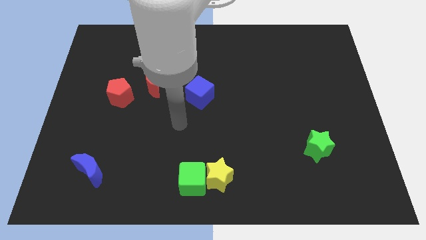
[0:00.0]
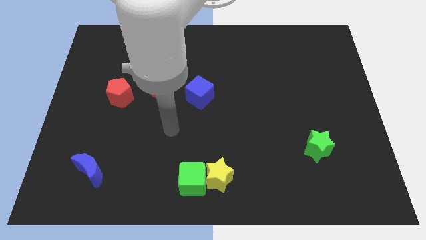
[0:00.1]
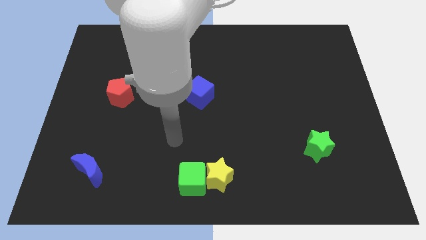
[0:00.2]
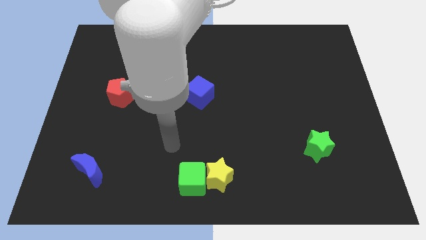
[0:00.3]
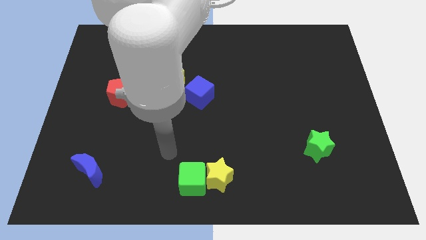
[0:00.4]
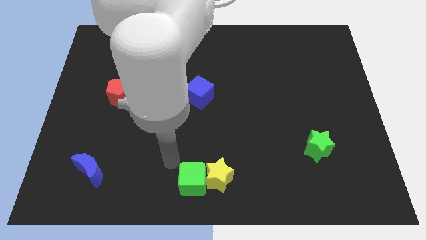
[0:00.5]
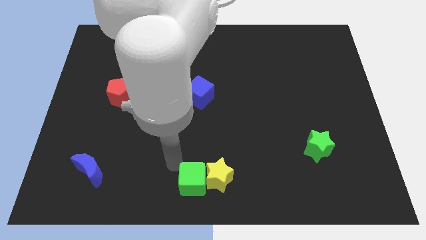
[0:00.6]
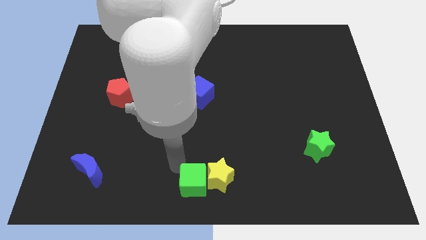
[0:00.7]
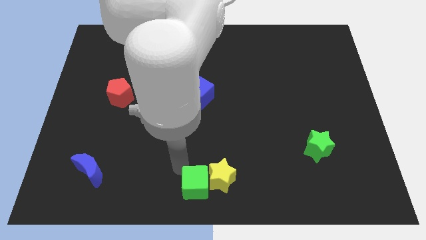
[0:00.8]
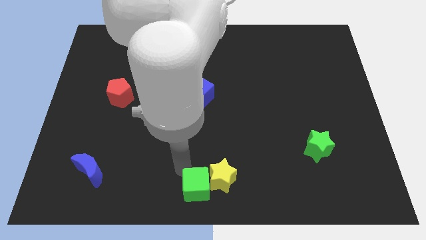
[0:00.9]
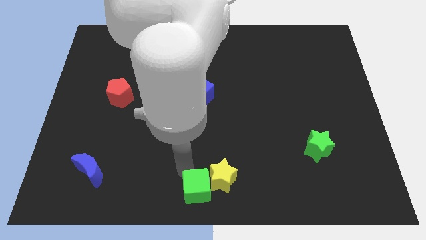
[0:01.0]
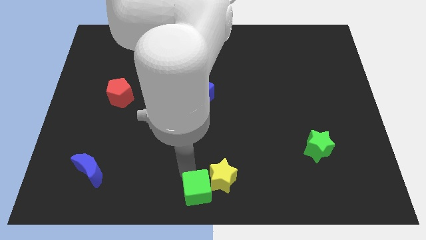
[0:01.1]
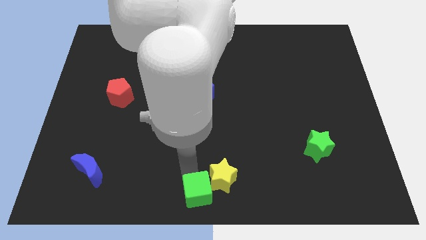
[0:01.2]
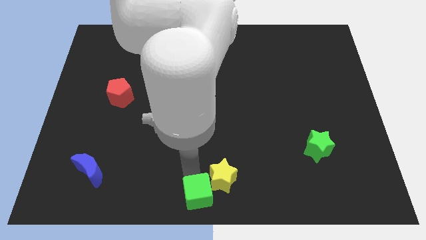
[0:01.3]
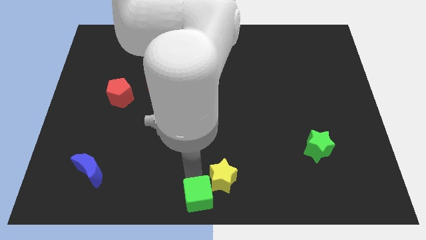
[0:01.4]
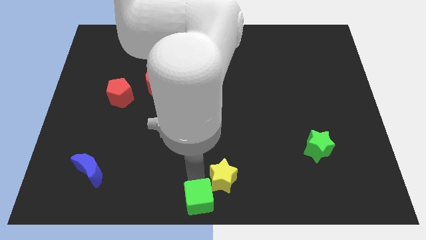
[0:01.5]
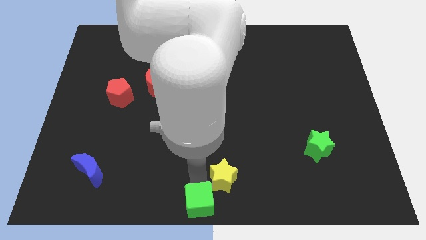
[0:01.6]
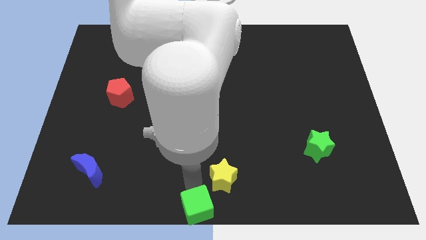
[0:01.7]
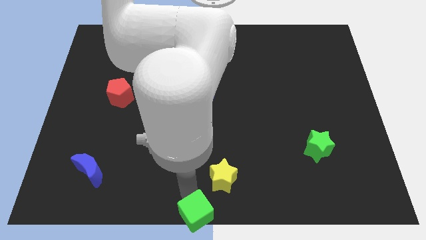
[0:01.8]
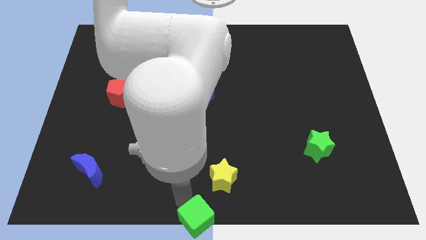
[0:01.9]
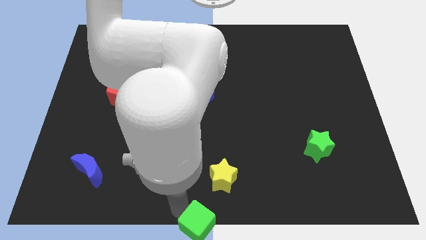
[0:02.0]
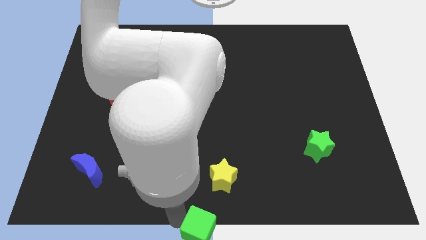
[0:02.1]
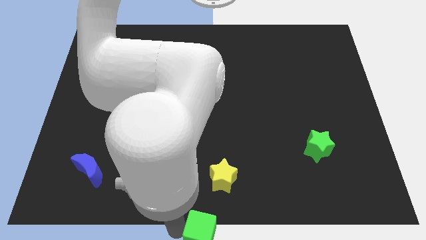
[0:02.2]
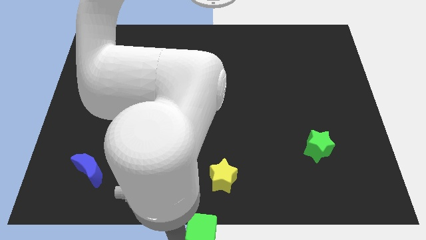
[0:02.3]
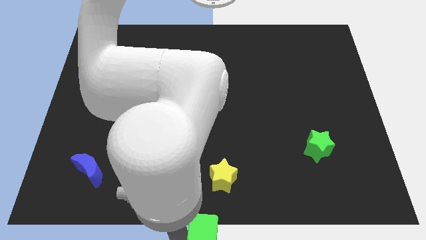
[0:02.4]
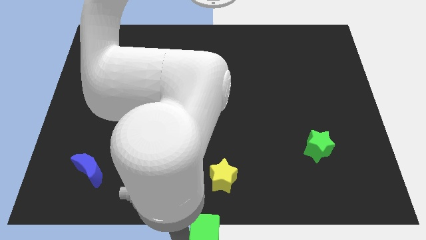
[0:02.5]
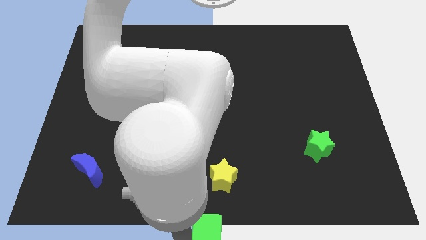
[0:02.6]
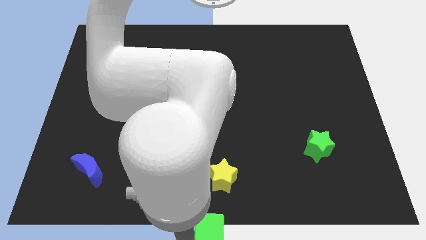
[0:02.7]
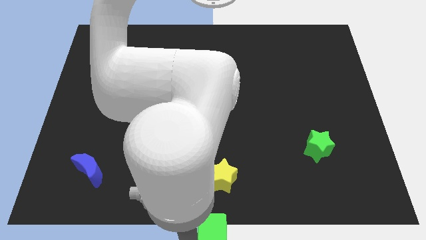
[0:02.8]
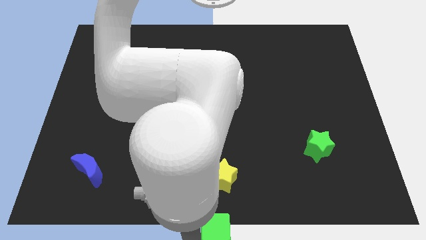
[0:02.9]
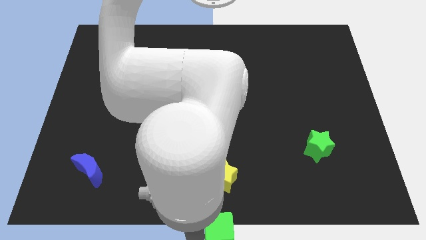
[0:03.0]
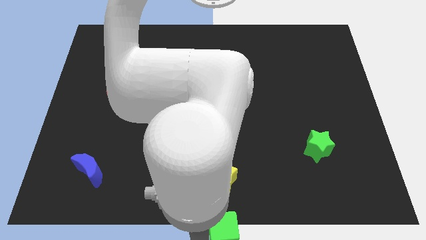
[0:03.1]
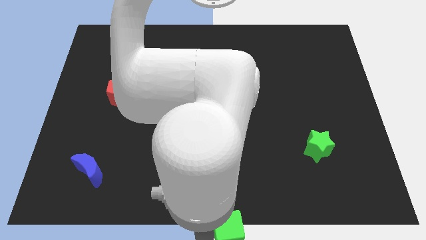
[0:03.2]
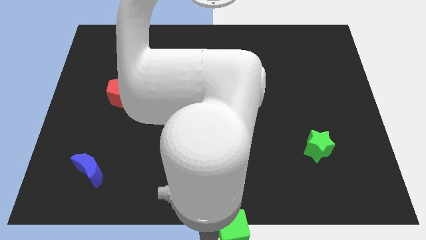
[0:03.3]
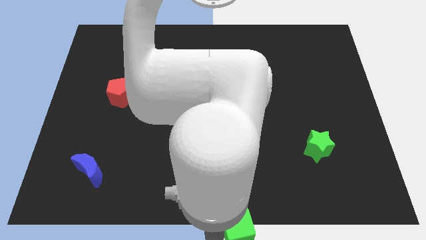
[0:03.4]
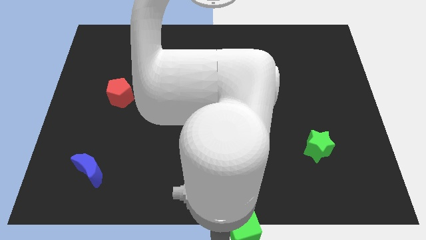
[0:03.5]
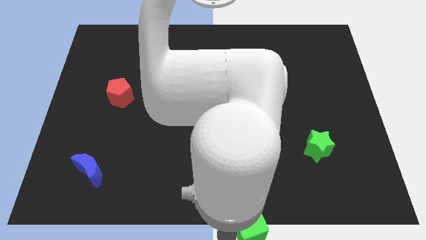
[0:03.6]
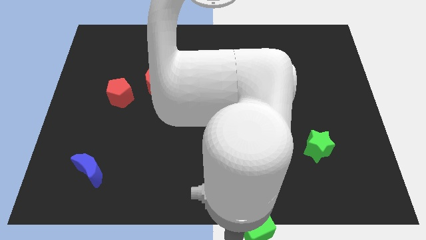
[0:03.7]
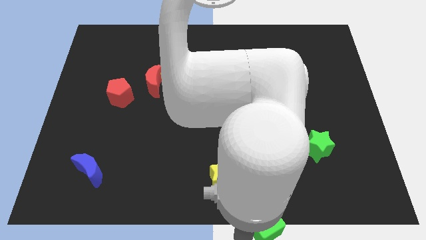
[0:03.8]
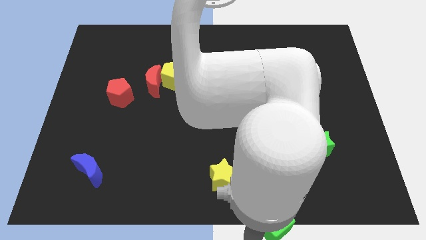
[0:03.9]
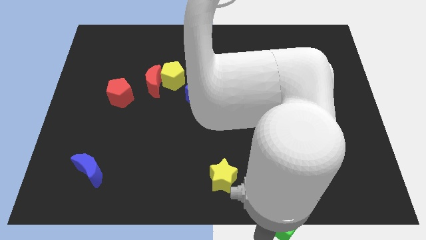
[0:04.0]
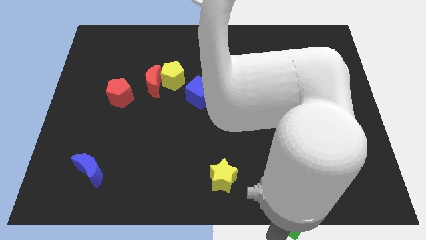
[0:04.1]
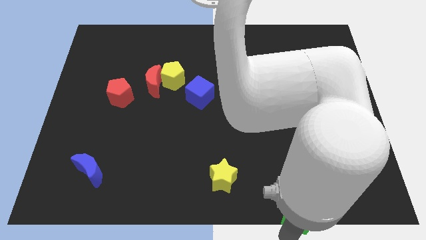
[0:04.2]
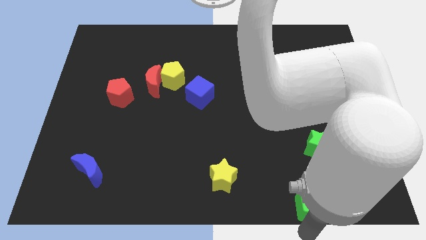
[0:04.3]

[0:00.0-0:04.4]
move the green cube right

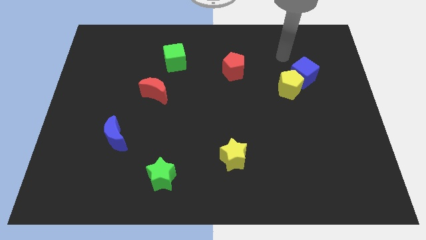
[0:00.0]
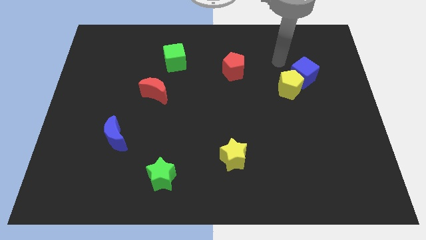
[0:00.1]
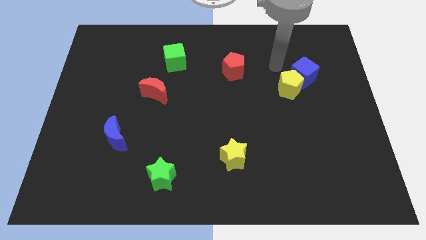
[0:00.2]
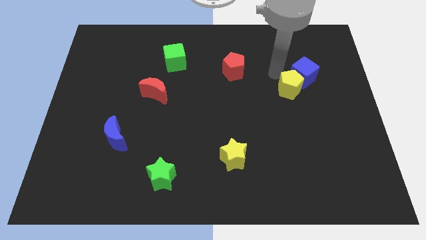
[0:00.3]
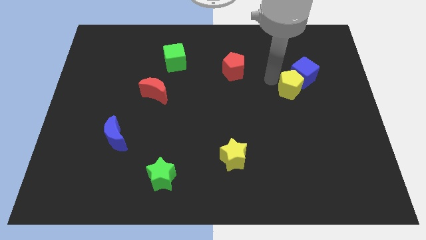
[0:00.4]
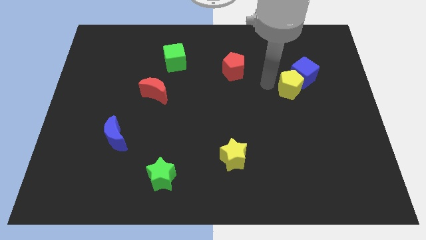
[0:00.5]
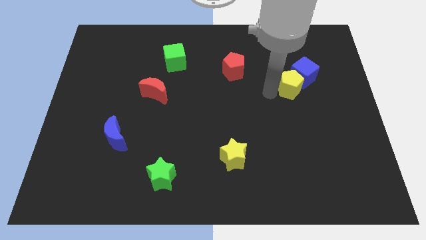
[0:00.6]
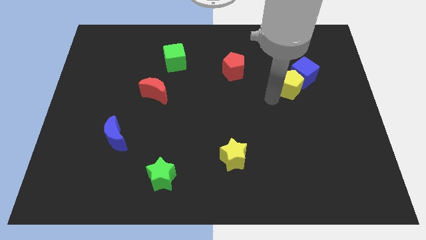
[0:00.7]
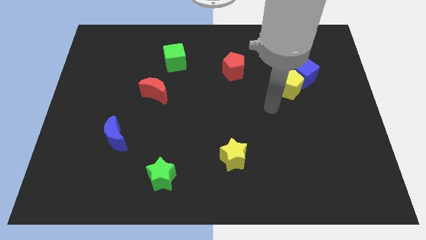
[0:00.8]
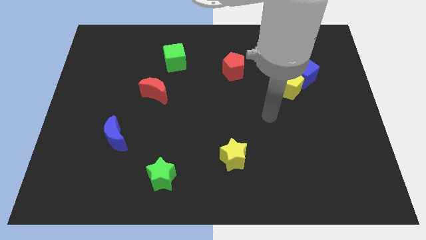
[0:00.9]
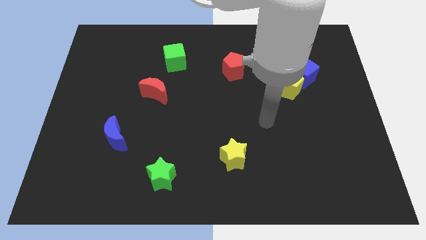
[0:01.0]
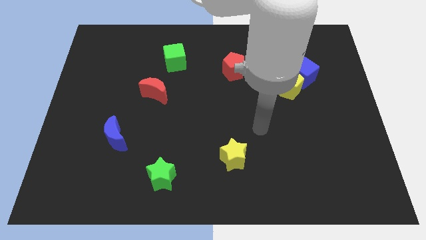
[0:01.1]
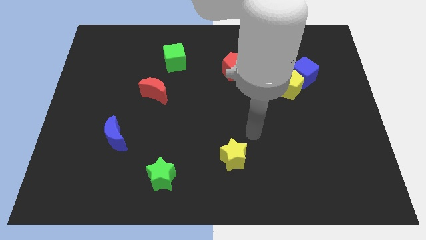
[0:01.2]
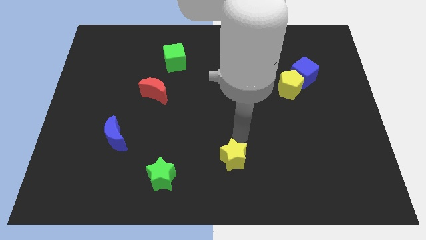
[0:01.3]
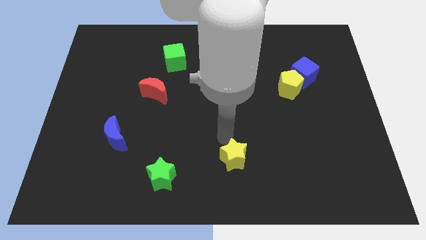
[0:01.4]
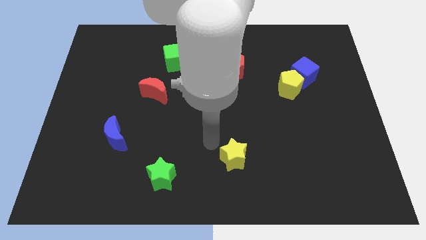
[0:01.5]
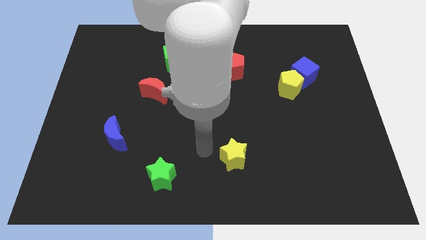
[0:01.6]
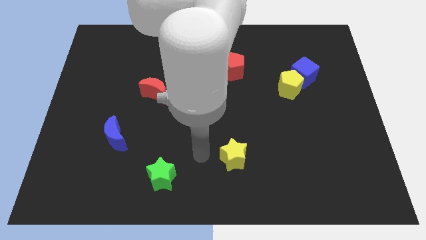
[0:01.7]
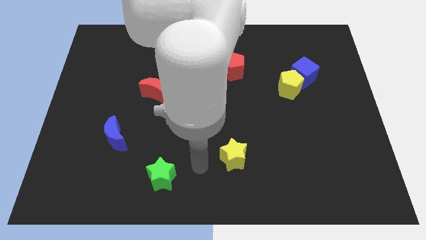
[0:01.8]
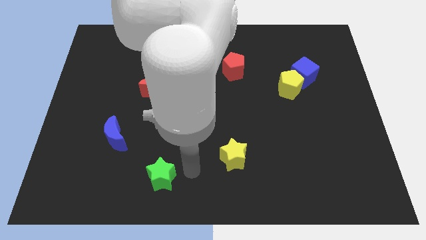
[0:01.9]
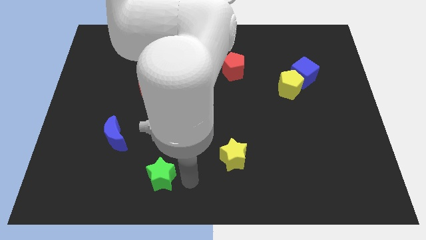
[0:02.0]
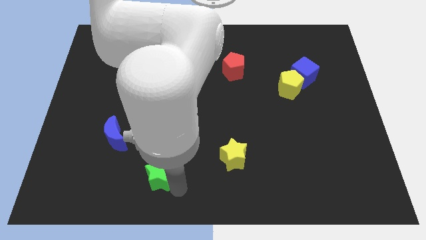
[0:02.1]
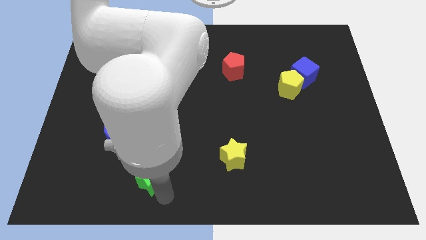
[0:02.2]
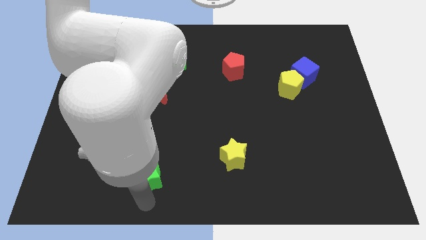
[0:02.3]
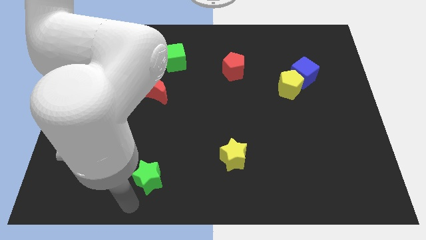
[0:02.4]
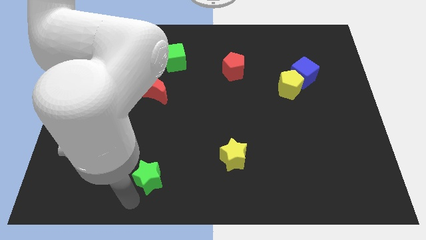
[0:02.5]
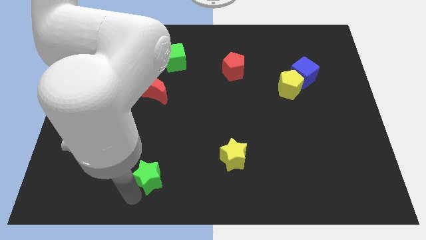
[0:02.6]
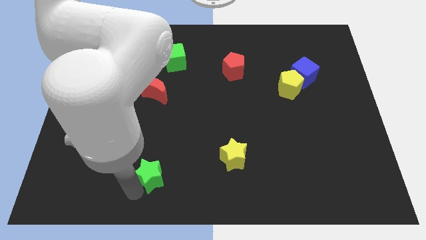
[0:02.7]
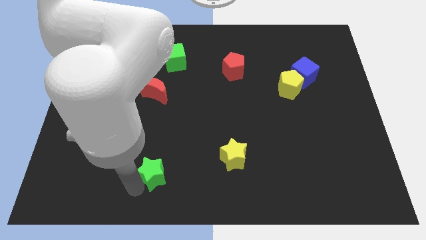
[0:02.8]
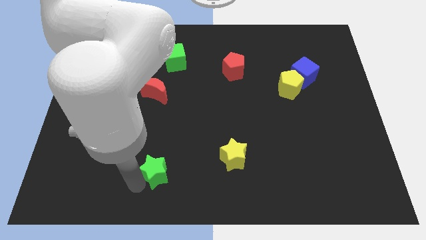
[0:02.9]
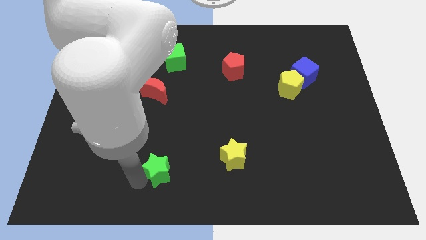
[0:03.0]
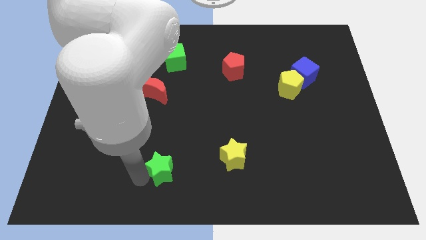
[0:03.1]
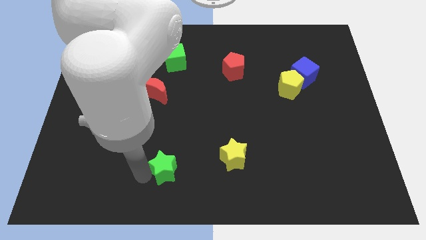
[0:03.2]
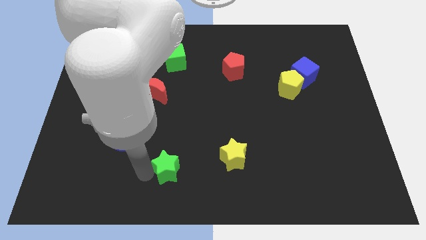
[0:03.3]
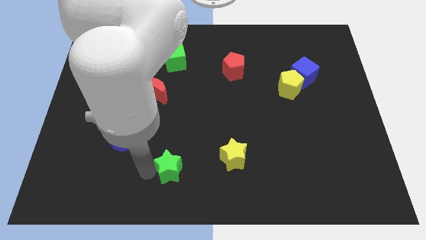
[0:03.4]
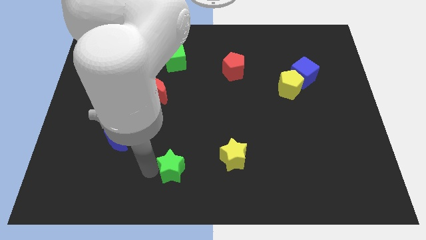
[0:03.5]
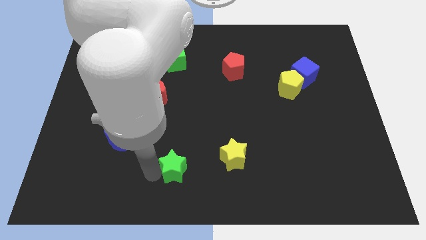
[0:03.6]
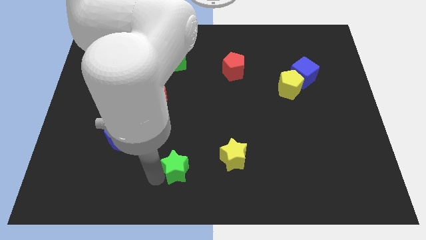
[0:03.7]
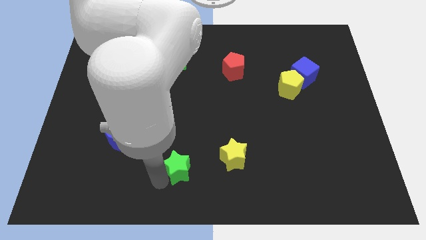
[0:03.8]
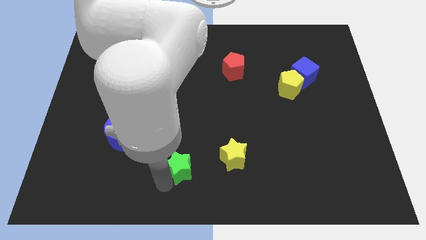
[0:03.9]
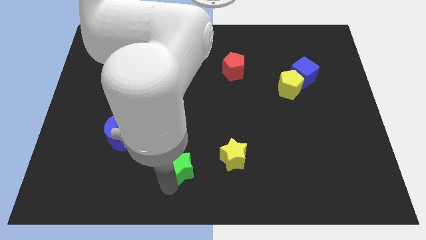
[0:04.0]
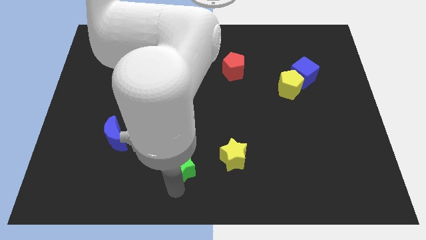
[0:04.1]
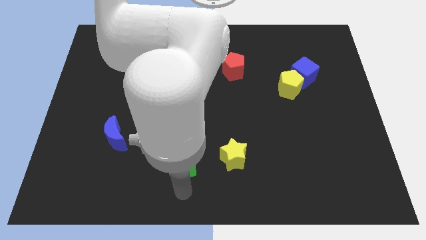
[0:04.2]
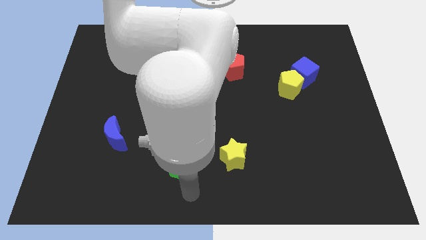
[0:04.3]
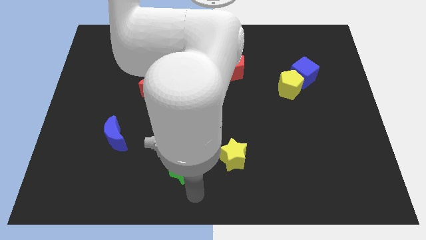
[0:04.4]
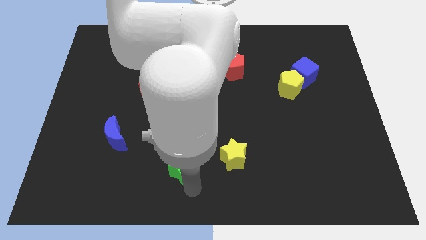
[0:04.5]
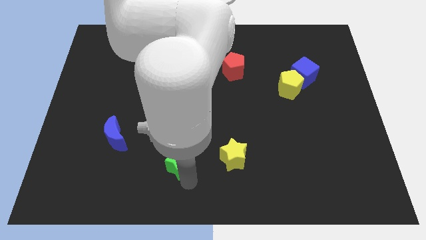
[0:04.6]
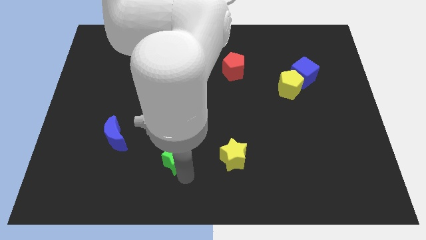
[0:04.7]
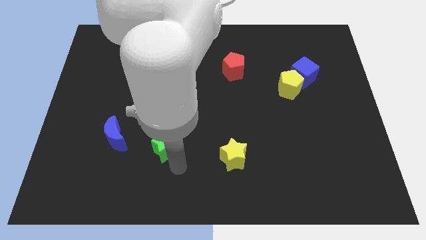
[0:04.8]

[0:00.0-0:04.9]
push the green star slightly up
